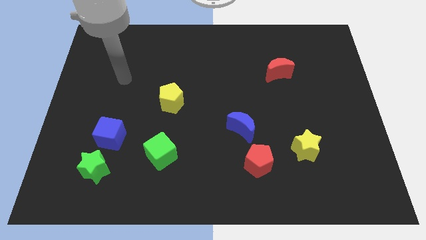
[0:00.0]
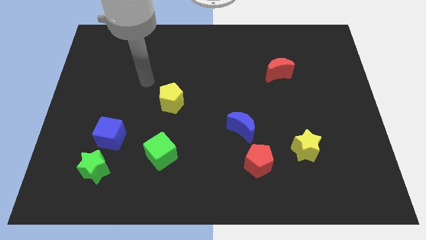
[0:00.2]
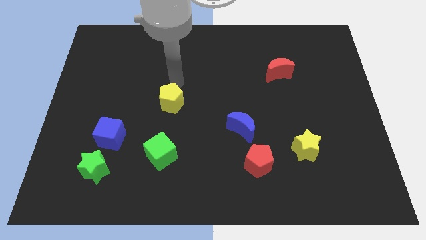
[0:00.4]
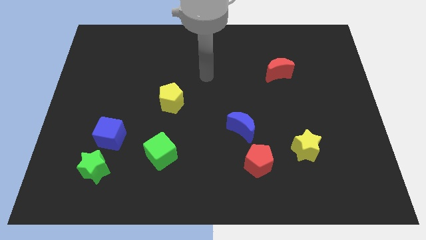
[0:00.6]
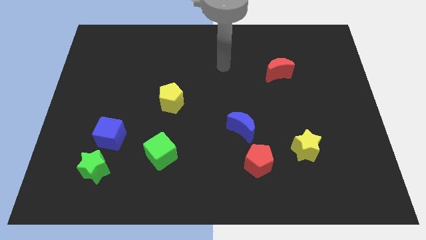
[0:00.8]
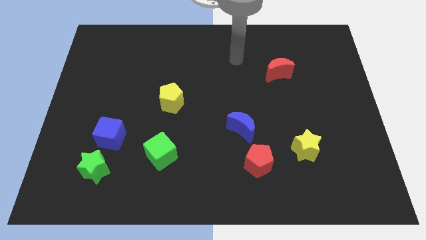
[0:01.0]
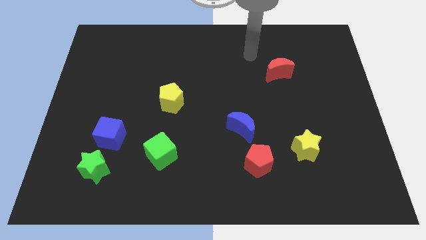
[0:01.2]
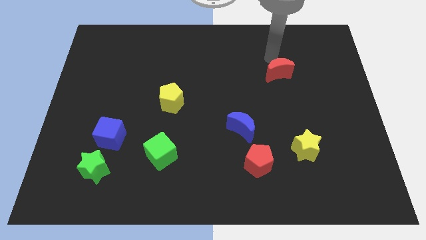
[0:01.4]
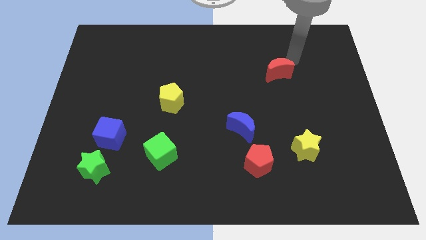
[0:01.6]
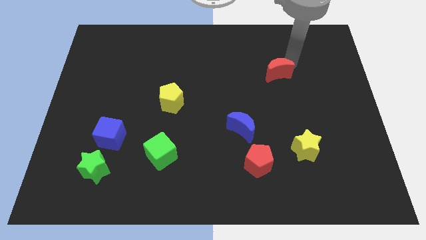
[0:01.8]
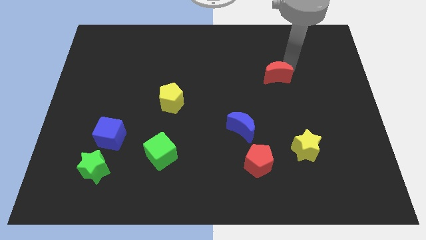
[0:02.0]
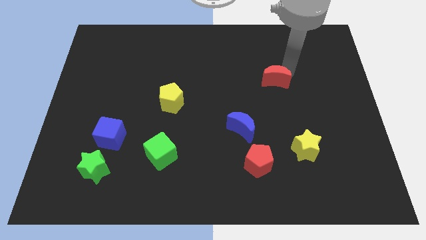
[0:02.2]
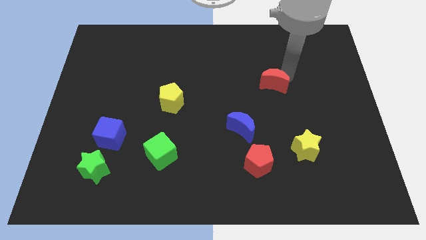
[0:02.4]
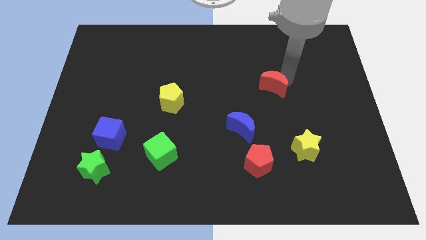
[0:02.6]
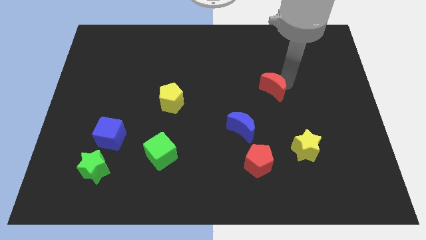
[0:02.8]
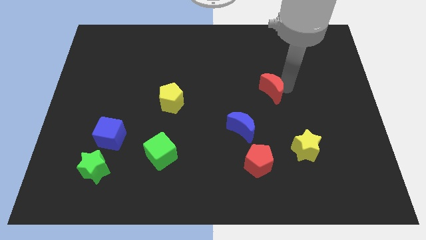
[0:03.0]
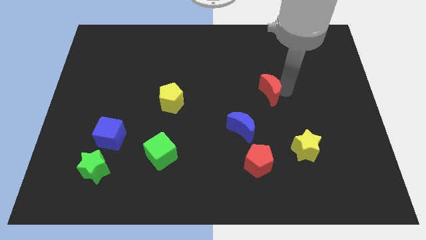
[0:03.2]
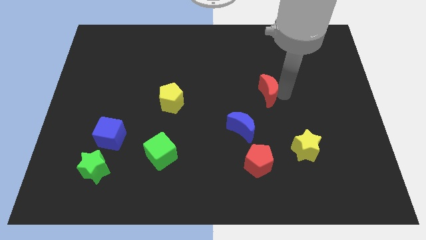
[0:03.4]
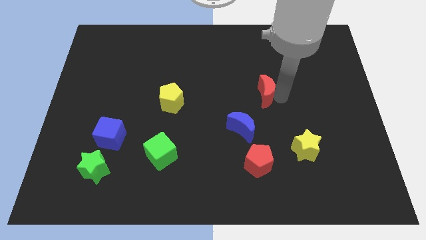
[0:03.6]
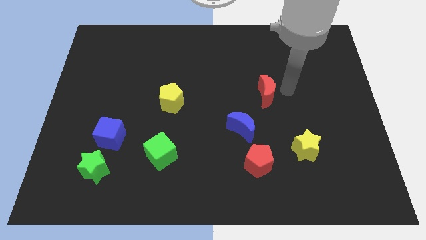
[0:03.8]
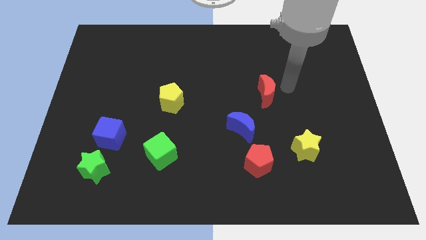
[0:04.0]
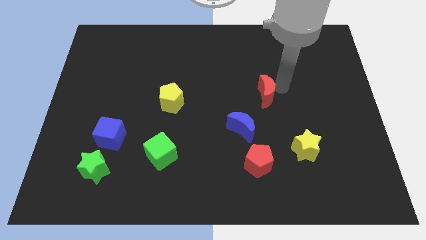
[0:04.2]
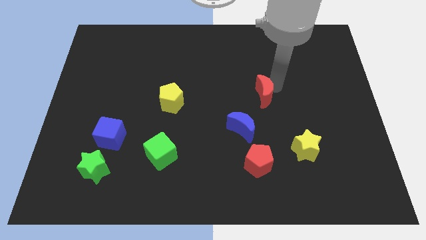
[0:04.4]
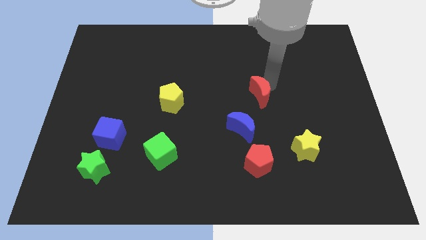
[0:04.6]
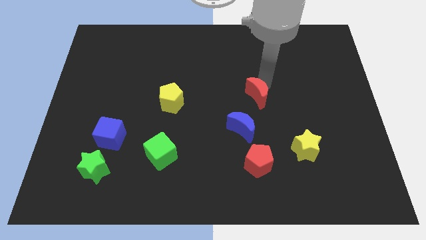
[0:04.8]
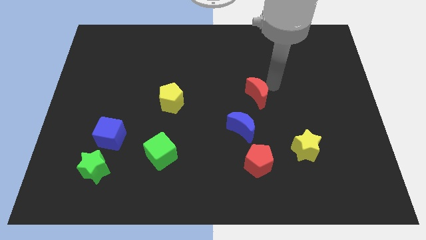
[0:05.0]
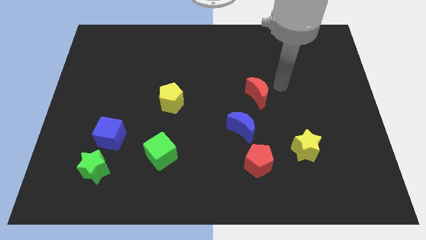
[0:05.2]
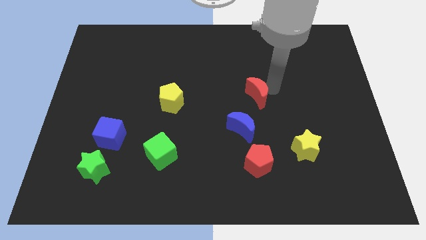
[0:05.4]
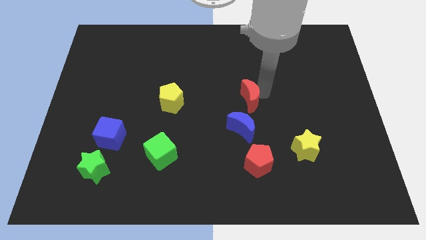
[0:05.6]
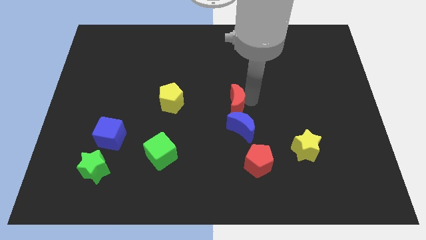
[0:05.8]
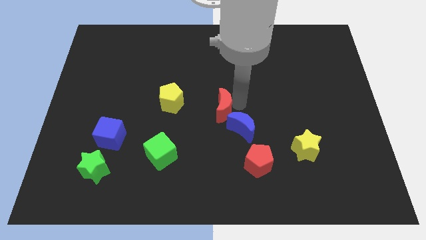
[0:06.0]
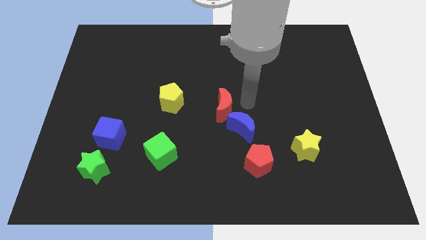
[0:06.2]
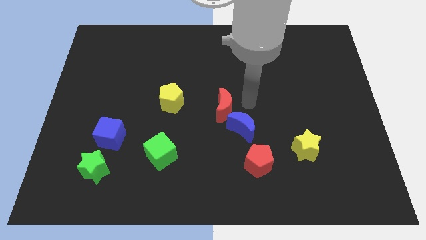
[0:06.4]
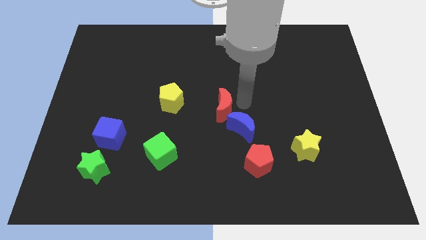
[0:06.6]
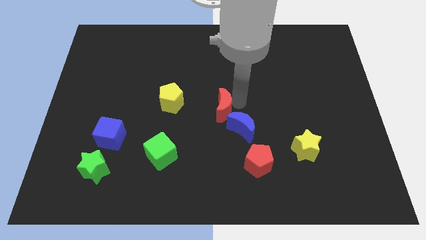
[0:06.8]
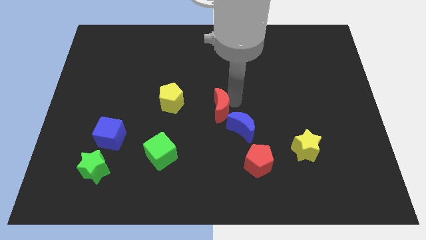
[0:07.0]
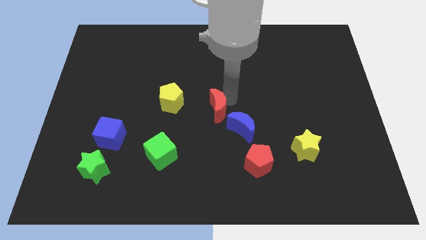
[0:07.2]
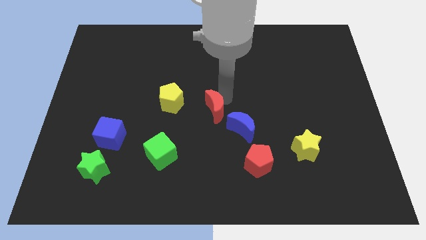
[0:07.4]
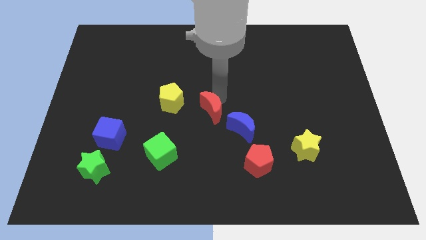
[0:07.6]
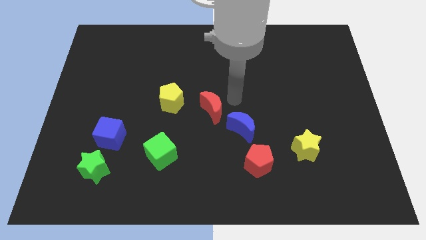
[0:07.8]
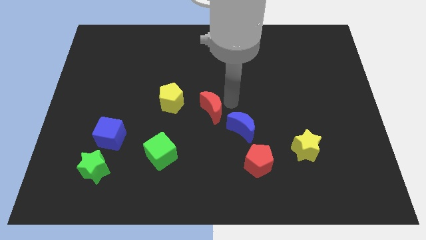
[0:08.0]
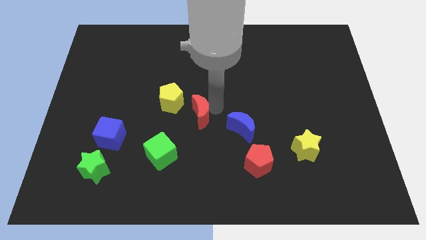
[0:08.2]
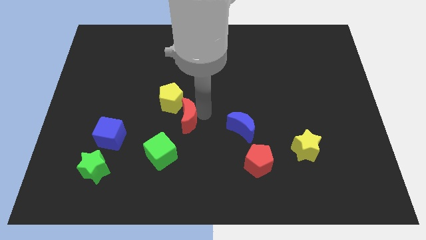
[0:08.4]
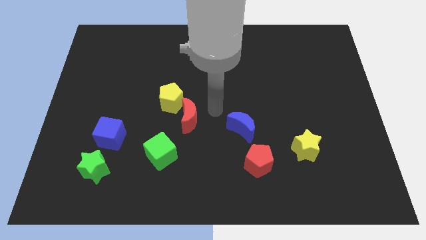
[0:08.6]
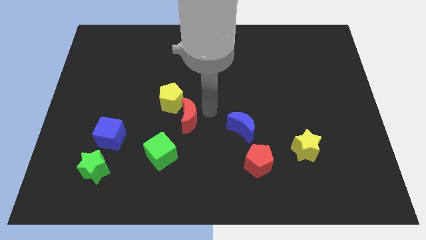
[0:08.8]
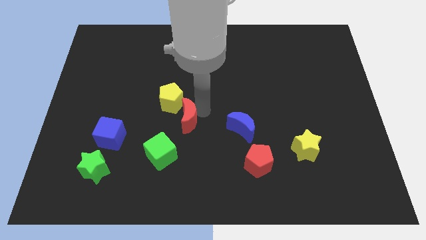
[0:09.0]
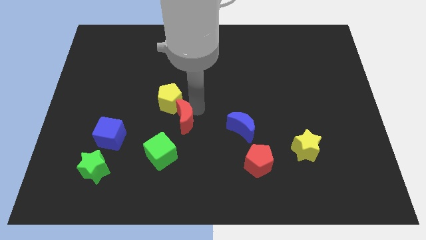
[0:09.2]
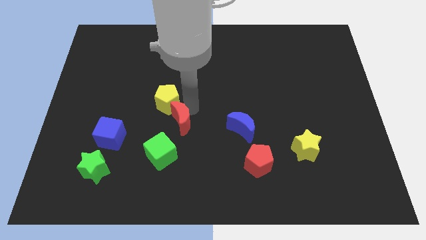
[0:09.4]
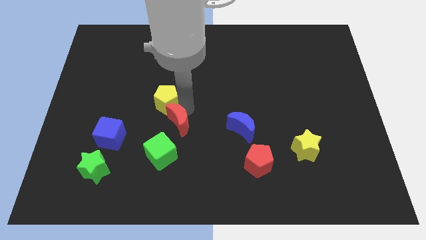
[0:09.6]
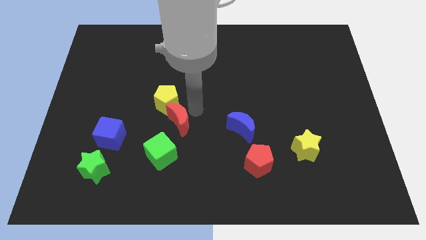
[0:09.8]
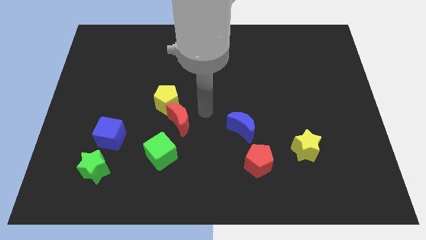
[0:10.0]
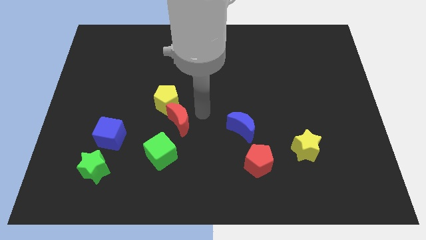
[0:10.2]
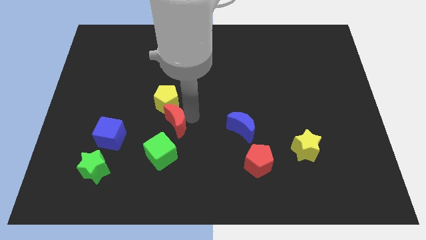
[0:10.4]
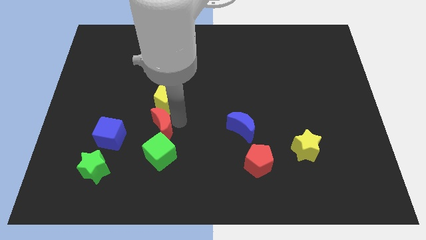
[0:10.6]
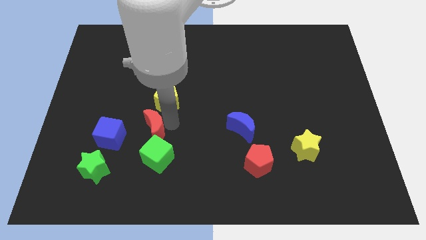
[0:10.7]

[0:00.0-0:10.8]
push the red moon diagonally up and to the left of the green cube

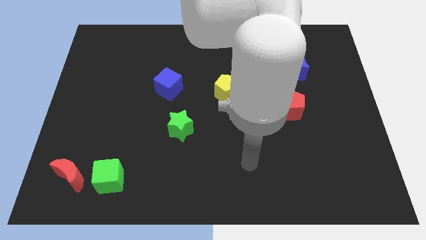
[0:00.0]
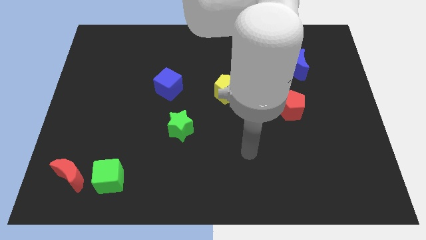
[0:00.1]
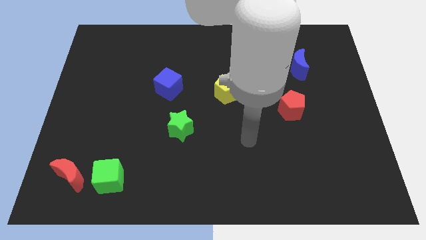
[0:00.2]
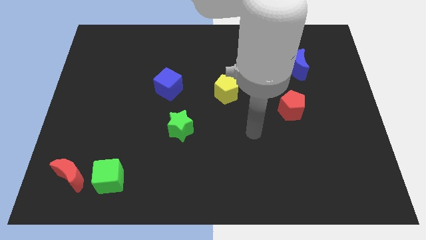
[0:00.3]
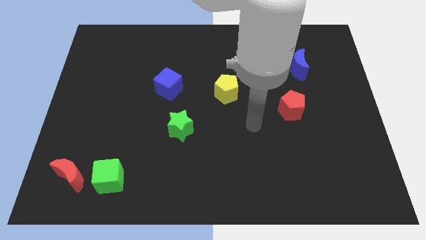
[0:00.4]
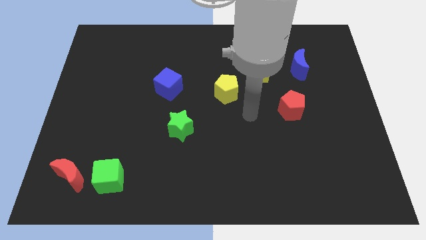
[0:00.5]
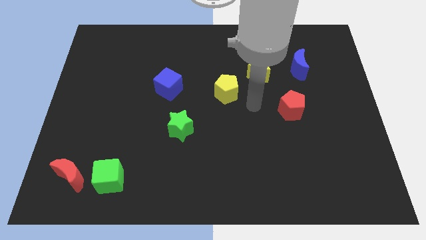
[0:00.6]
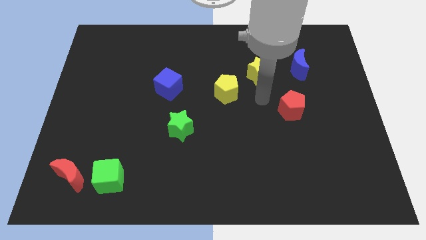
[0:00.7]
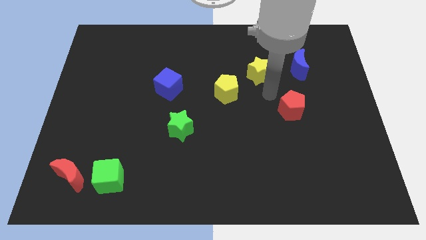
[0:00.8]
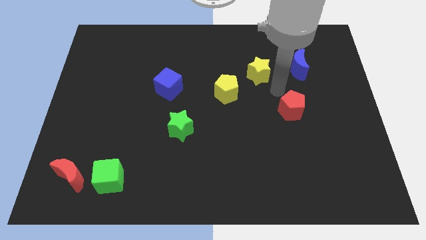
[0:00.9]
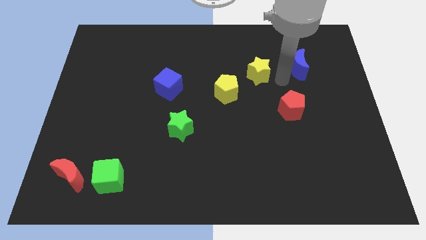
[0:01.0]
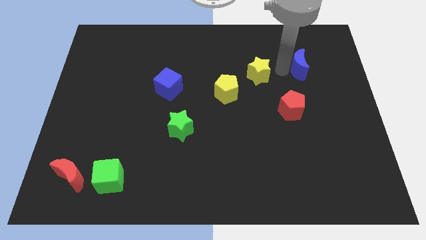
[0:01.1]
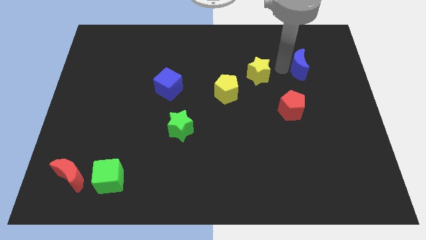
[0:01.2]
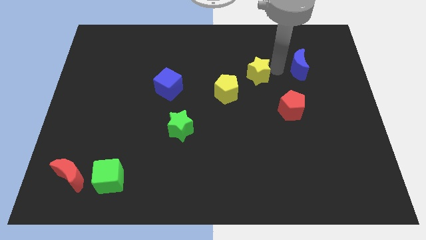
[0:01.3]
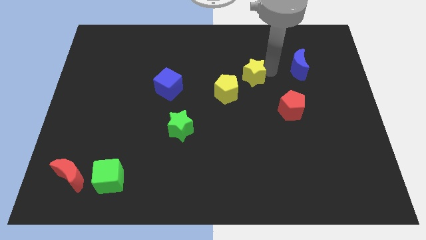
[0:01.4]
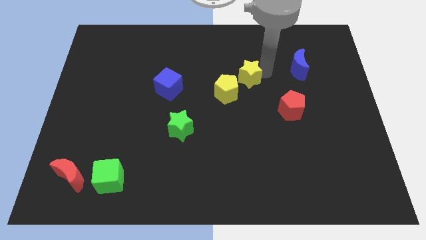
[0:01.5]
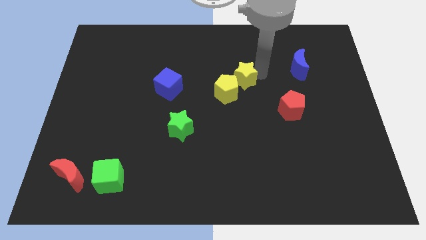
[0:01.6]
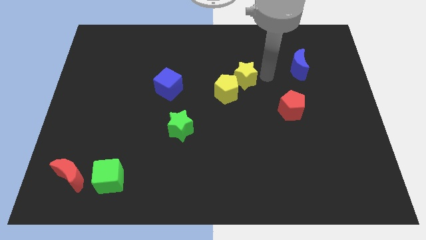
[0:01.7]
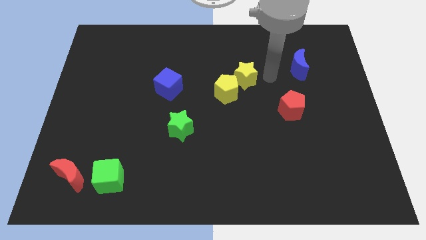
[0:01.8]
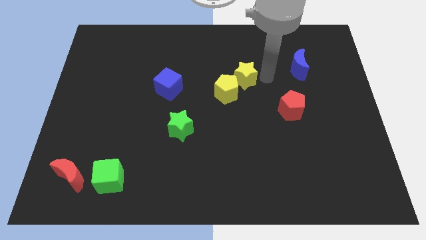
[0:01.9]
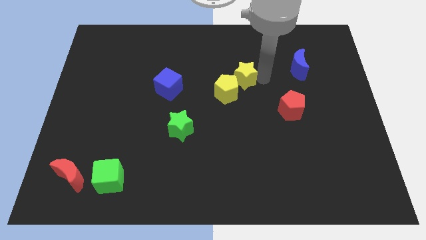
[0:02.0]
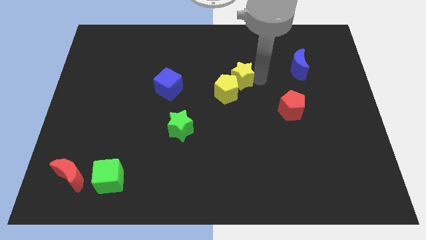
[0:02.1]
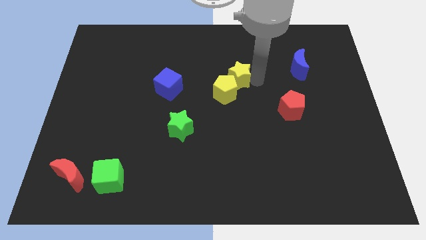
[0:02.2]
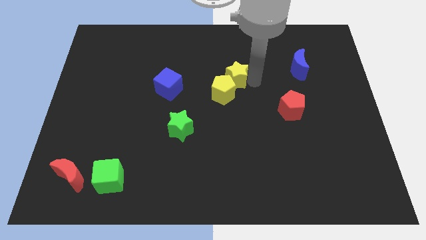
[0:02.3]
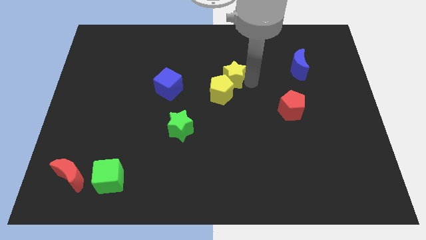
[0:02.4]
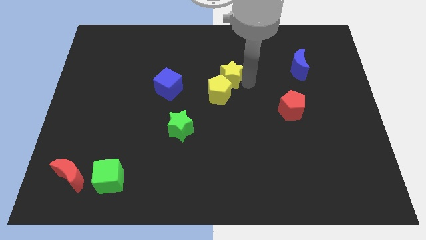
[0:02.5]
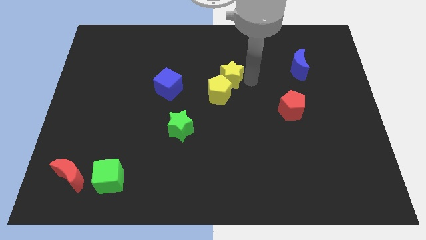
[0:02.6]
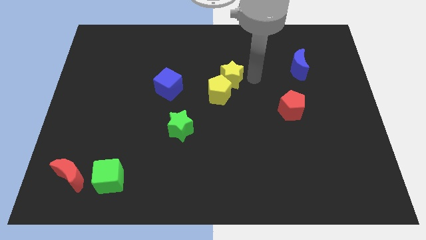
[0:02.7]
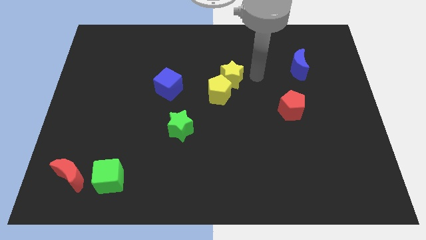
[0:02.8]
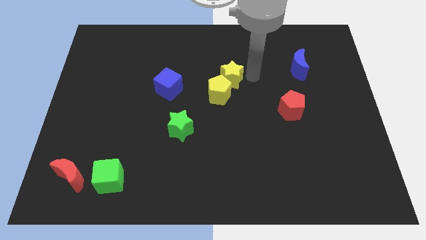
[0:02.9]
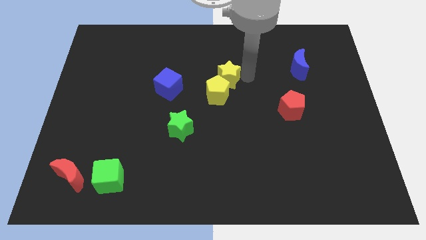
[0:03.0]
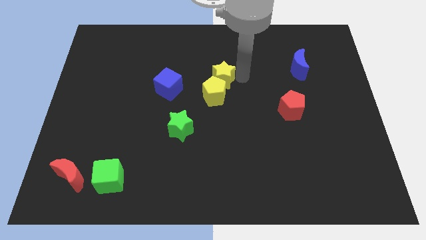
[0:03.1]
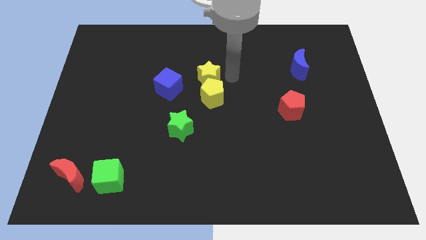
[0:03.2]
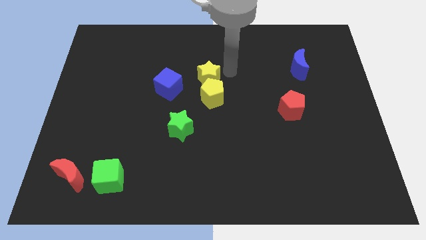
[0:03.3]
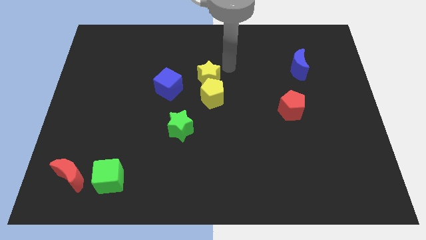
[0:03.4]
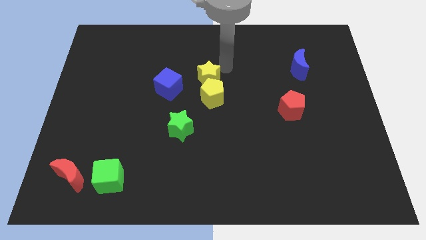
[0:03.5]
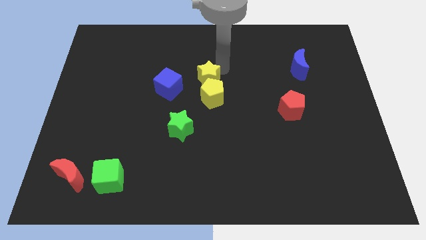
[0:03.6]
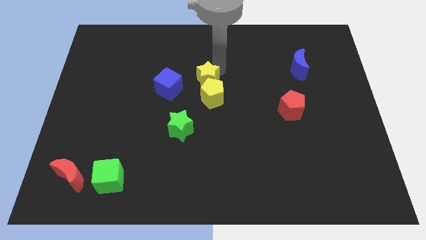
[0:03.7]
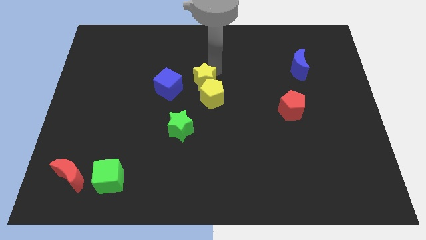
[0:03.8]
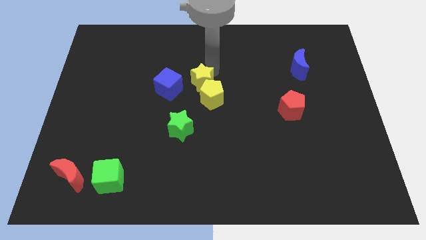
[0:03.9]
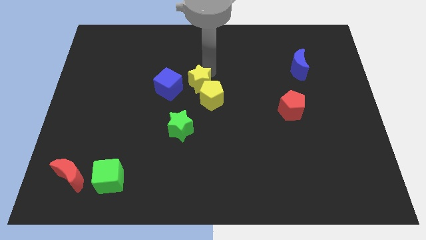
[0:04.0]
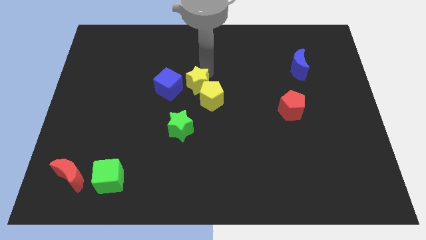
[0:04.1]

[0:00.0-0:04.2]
put the yellow star to the top side of the green star
